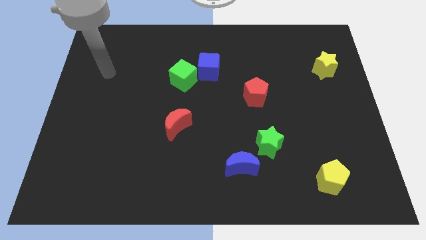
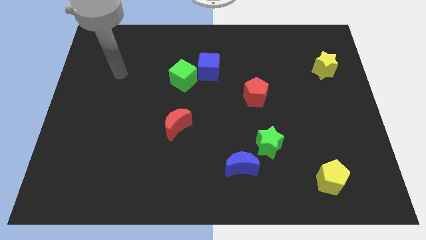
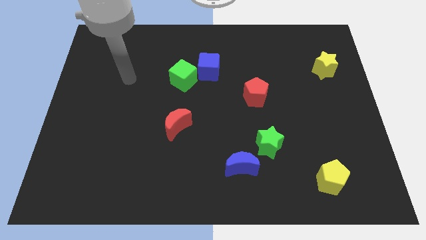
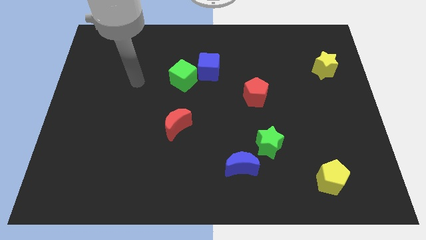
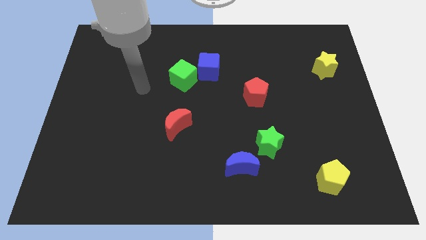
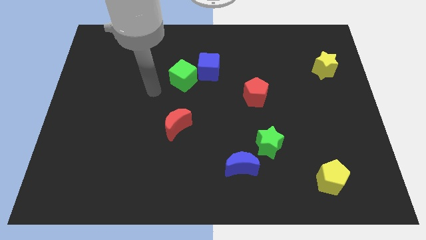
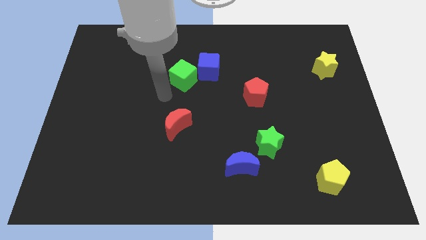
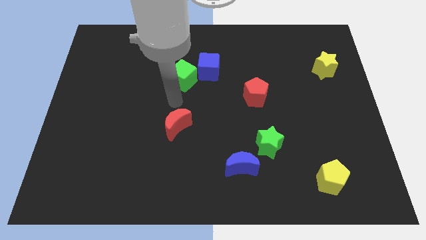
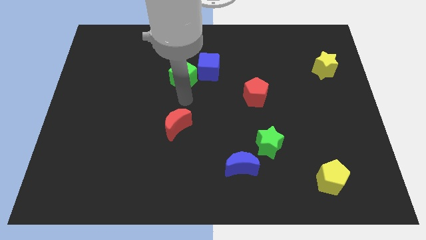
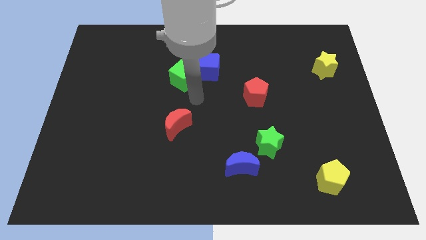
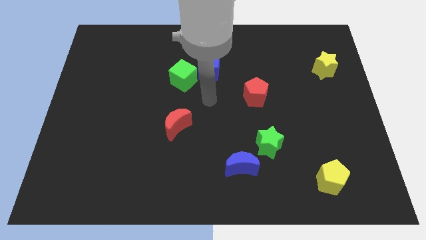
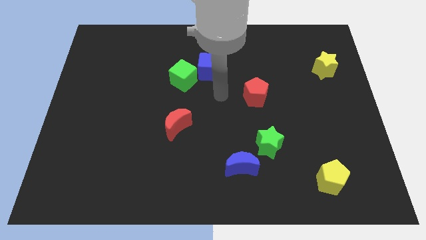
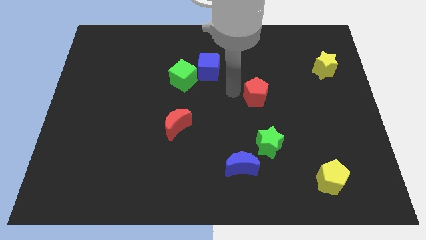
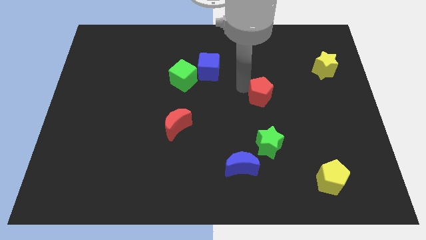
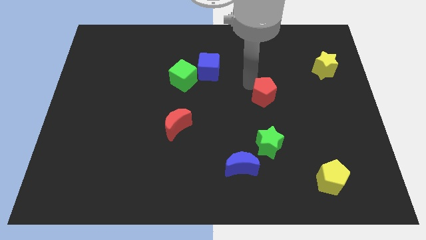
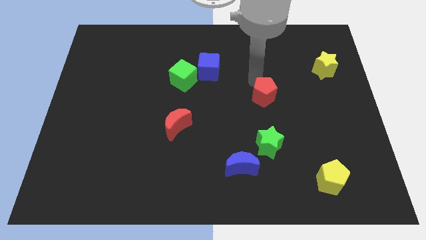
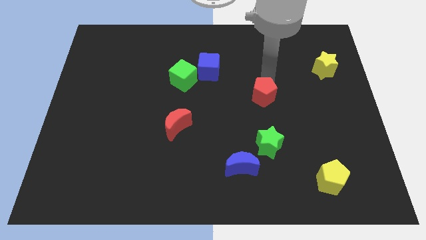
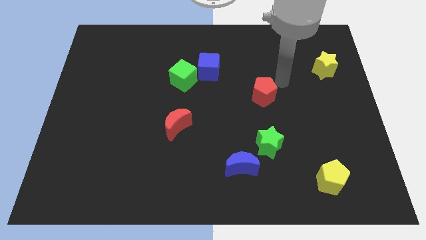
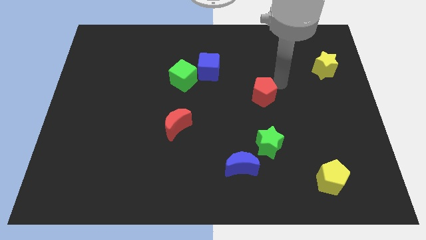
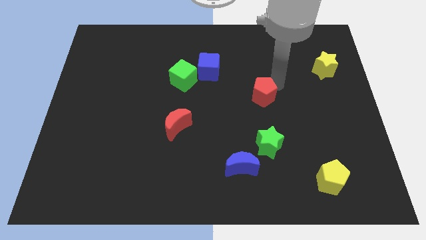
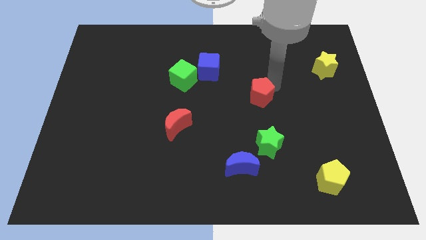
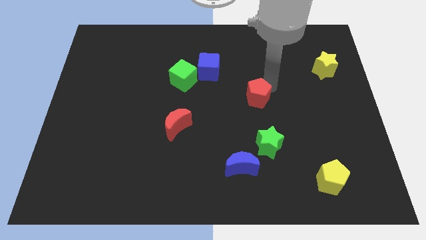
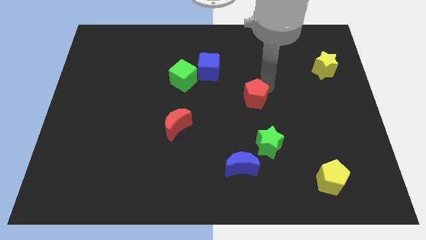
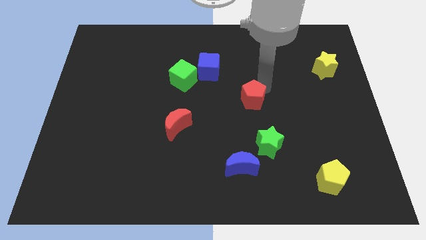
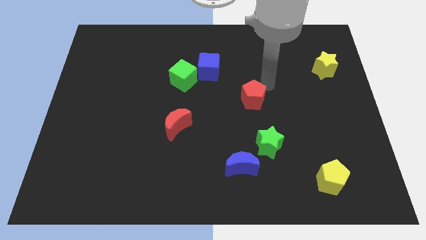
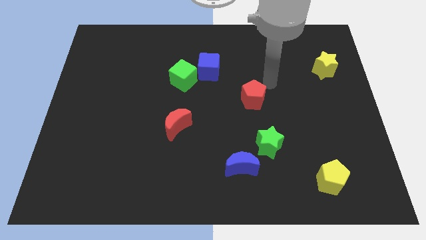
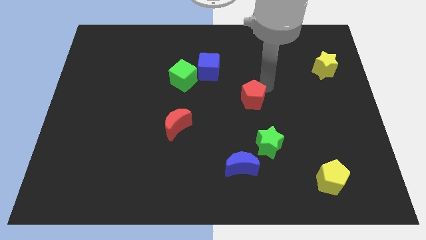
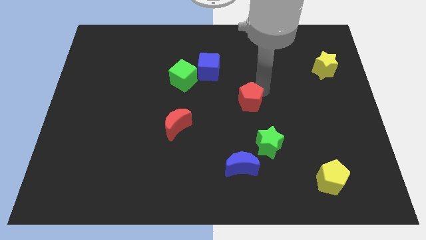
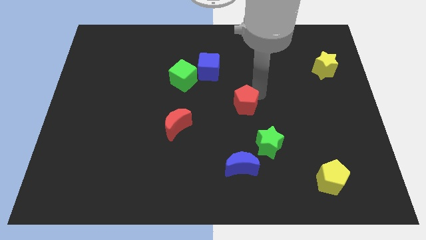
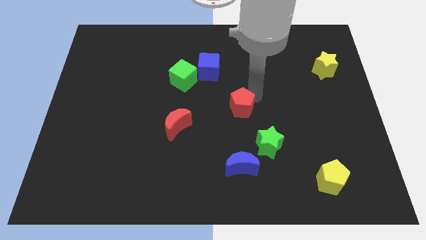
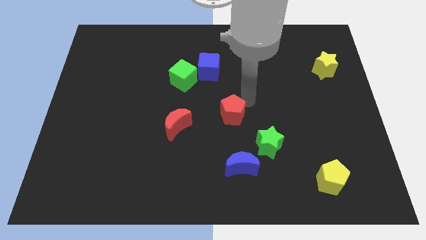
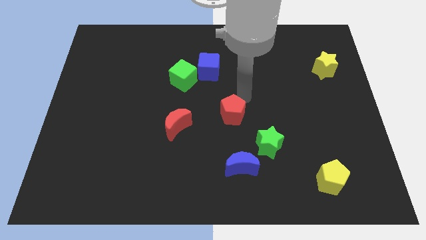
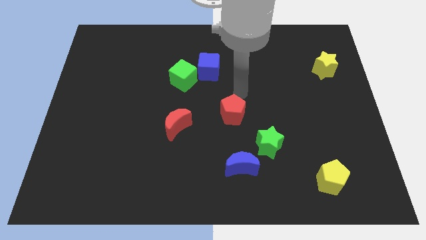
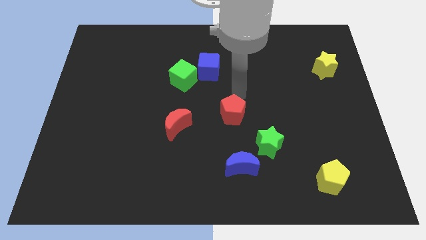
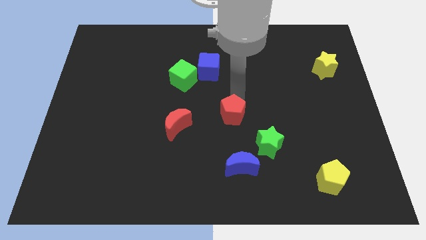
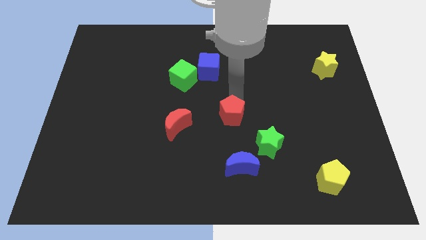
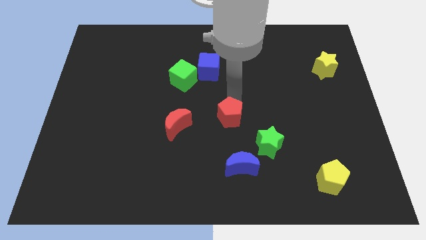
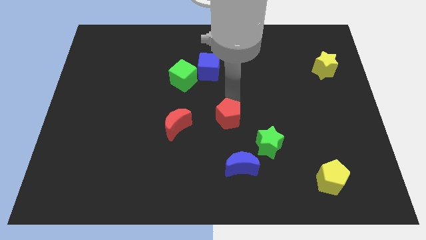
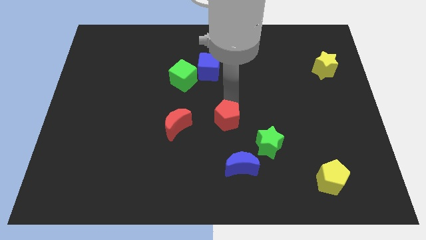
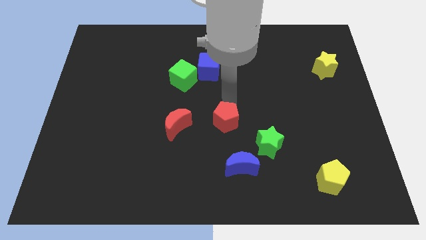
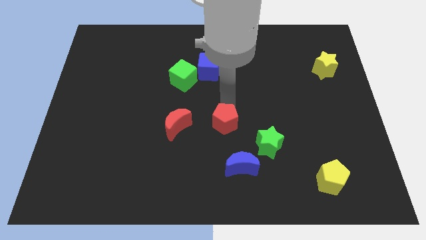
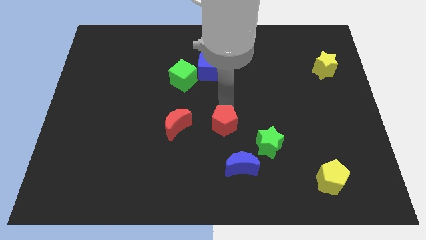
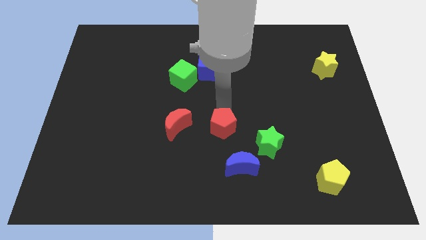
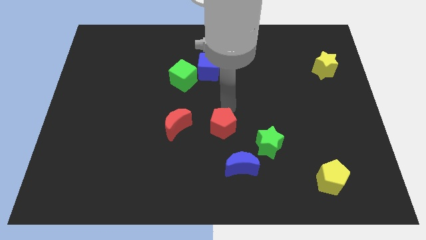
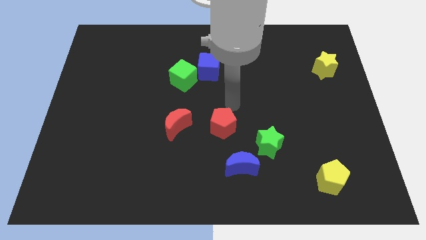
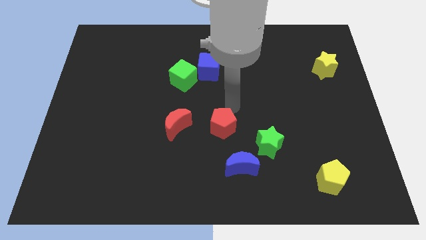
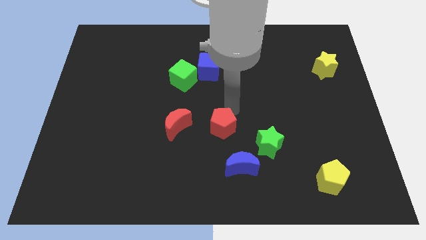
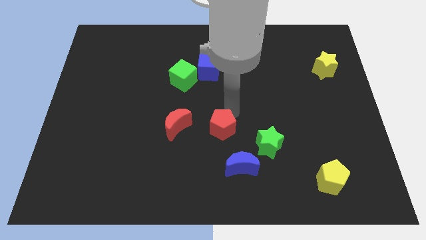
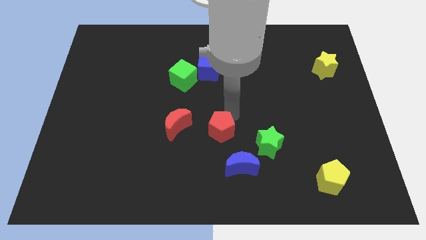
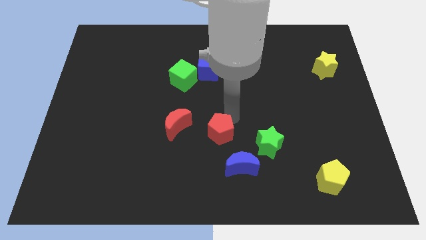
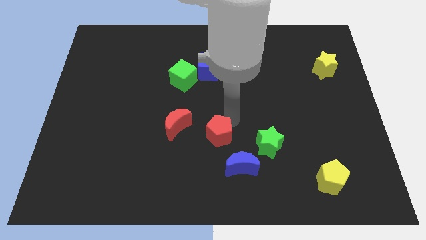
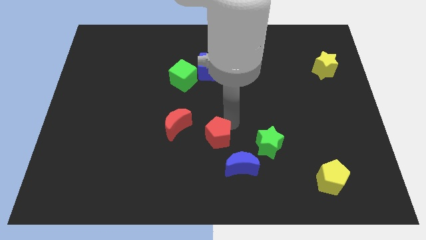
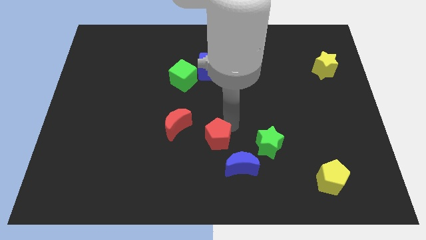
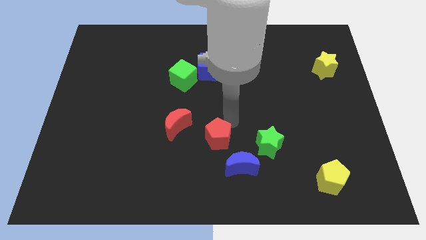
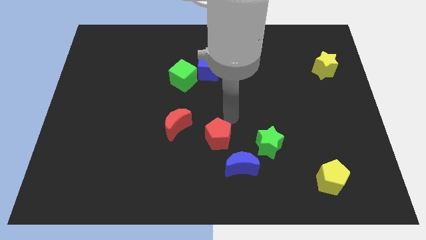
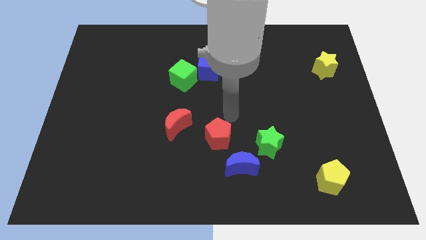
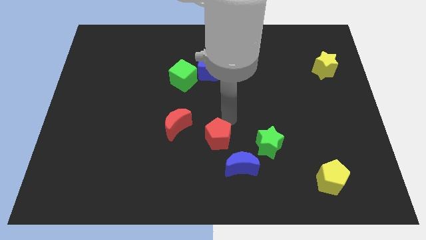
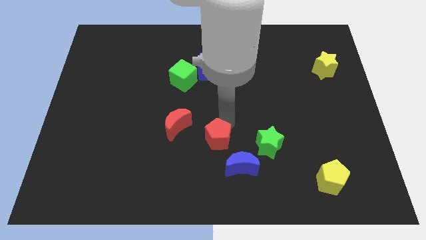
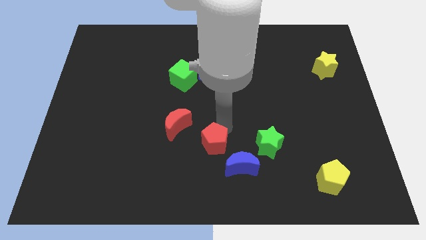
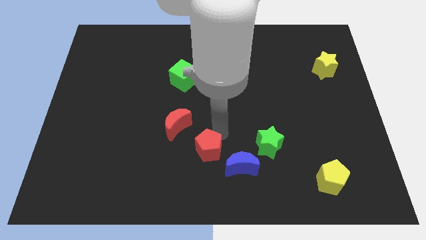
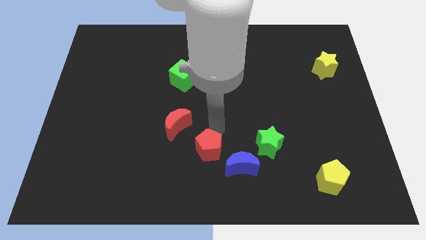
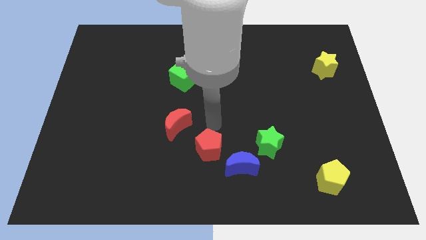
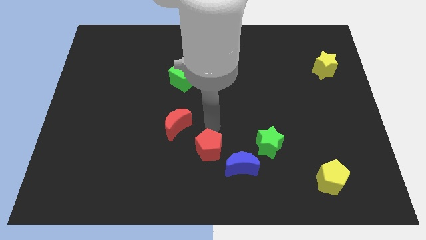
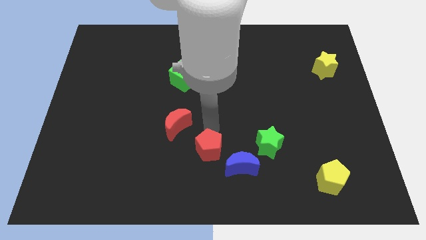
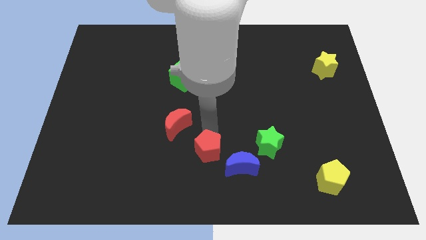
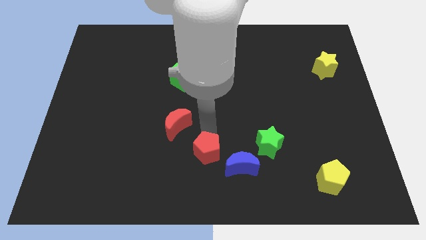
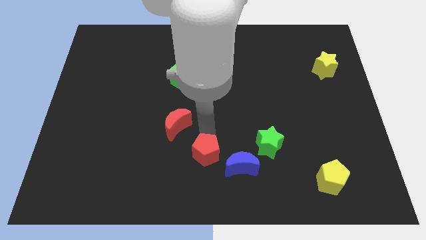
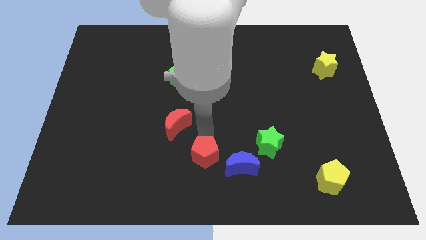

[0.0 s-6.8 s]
move the red pentagon to the bottom
